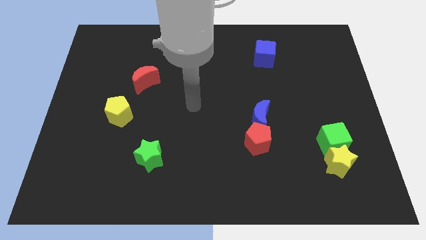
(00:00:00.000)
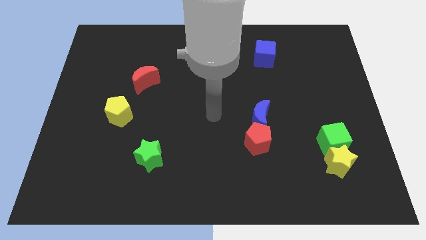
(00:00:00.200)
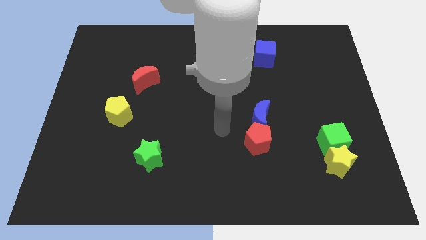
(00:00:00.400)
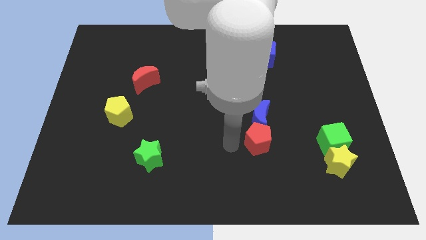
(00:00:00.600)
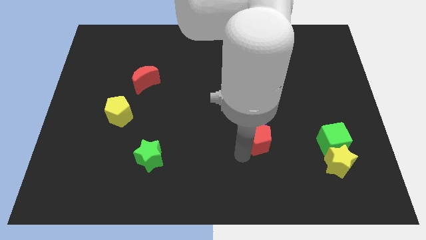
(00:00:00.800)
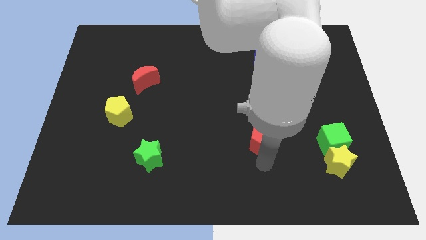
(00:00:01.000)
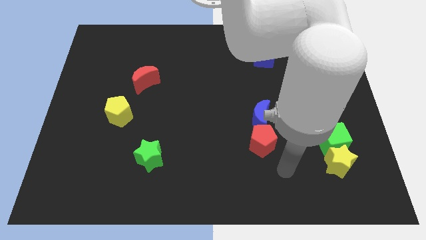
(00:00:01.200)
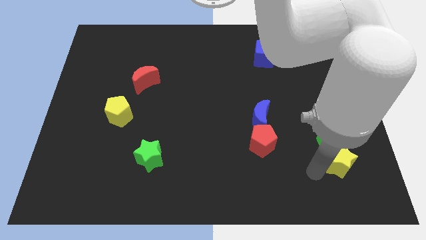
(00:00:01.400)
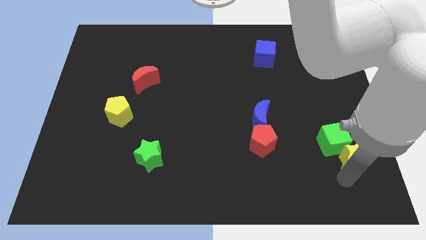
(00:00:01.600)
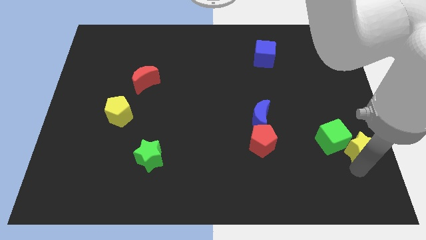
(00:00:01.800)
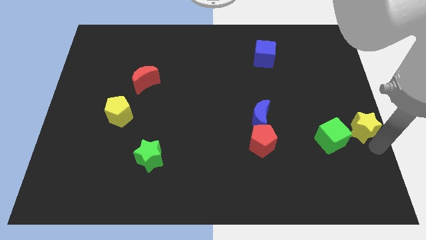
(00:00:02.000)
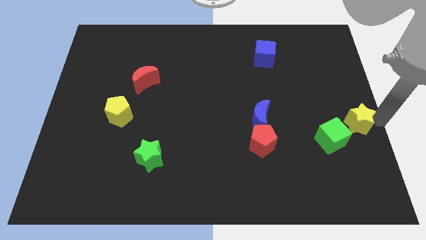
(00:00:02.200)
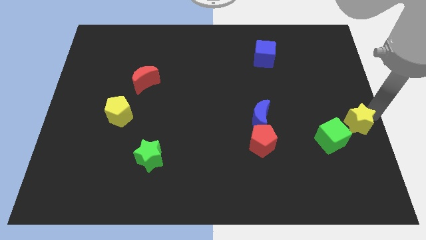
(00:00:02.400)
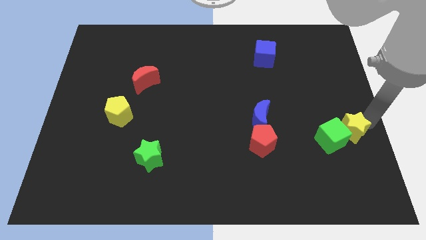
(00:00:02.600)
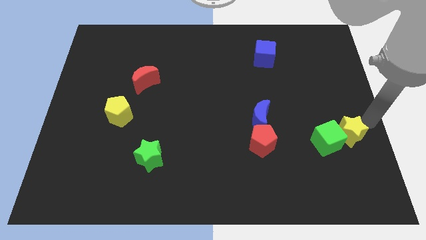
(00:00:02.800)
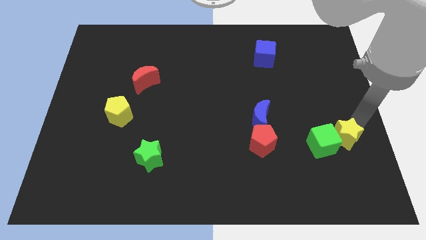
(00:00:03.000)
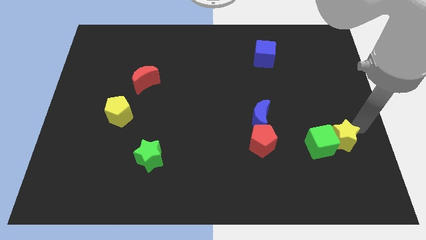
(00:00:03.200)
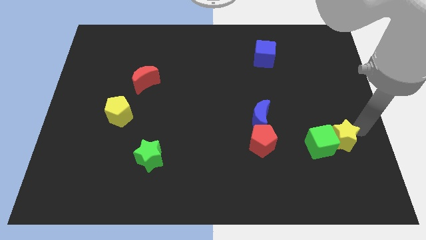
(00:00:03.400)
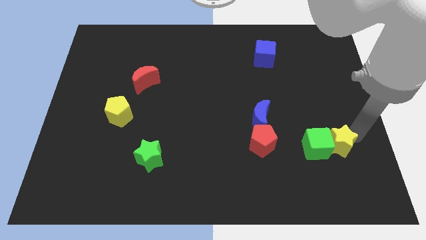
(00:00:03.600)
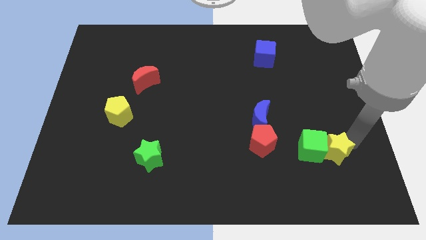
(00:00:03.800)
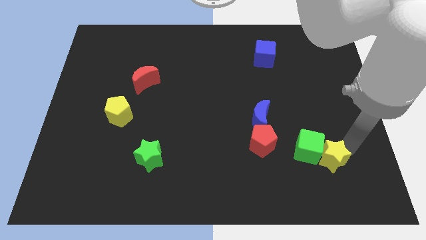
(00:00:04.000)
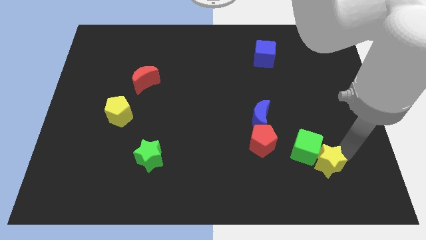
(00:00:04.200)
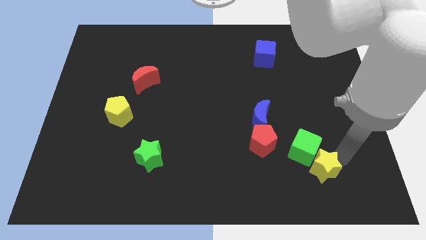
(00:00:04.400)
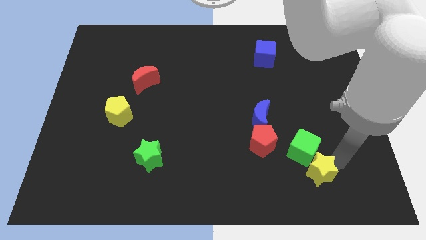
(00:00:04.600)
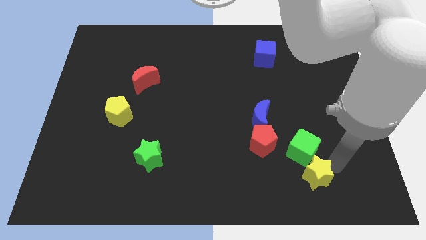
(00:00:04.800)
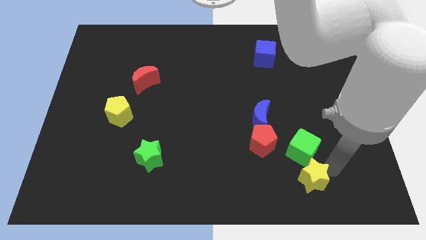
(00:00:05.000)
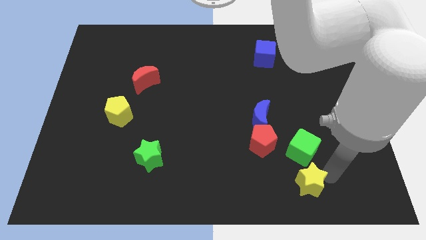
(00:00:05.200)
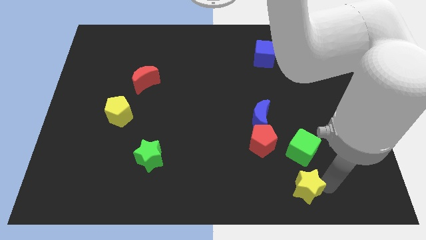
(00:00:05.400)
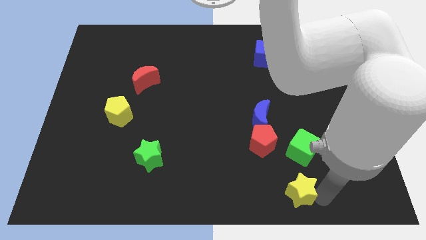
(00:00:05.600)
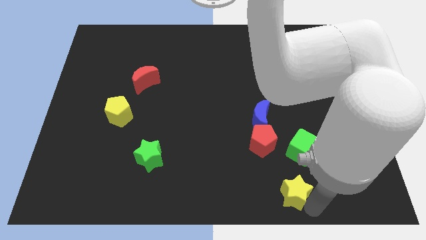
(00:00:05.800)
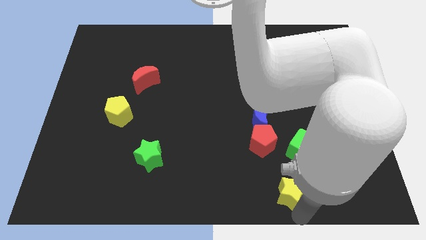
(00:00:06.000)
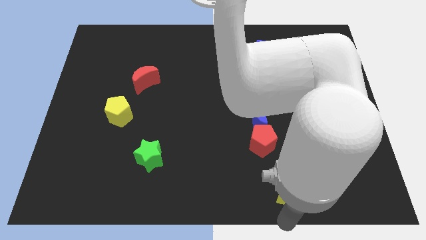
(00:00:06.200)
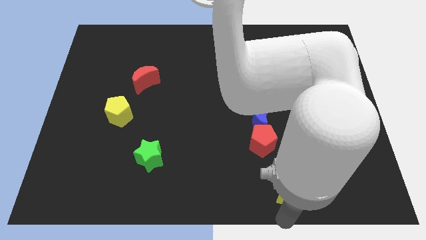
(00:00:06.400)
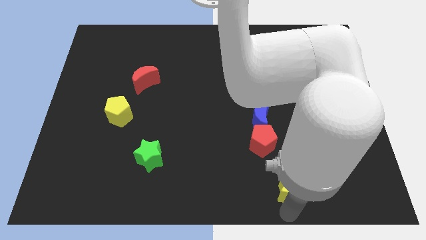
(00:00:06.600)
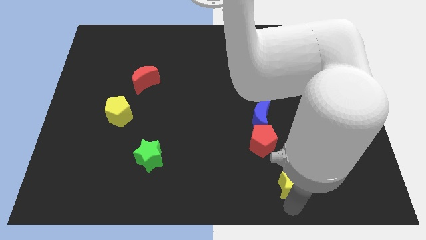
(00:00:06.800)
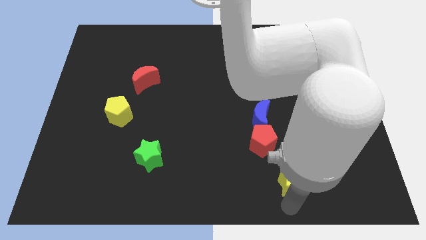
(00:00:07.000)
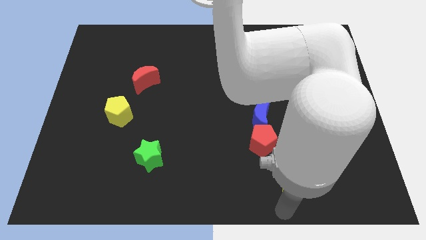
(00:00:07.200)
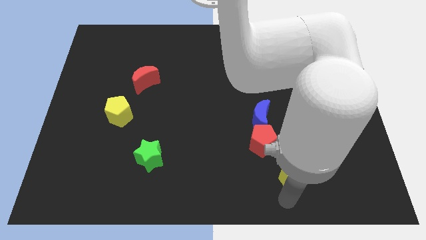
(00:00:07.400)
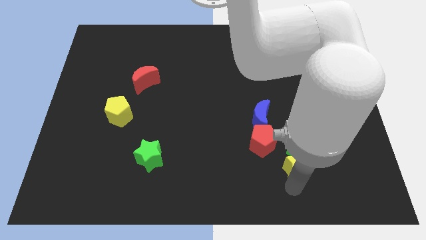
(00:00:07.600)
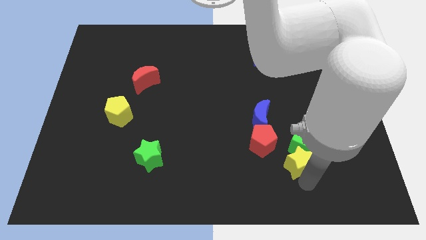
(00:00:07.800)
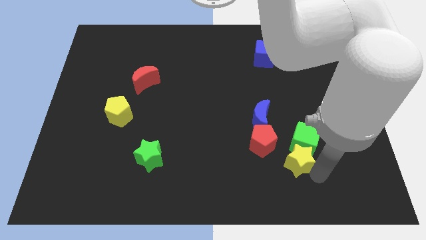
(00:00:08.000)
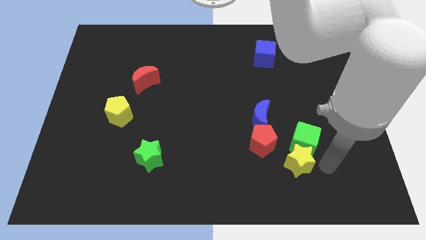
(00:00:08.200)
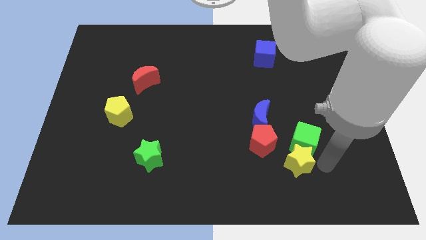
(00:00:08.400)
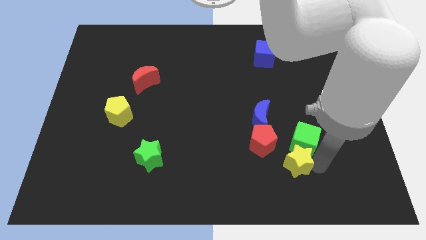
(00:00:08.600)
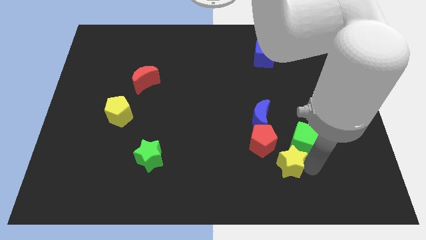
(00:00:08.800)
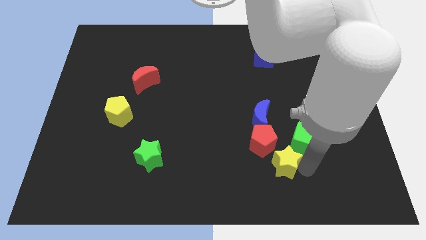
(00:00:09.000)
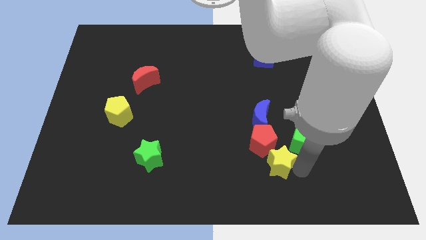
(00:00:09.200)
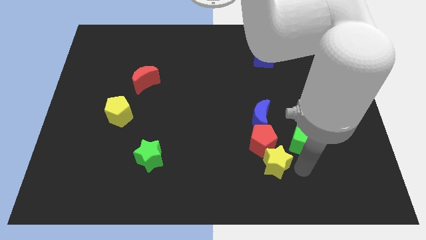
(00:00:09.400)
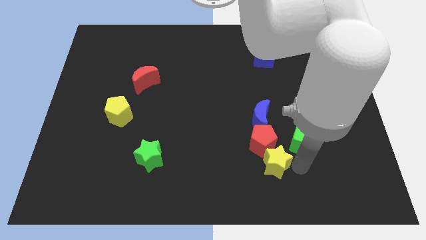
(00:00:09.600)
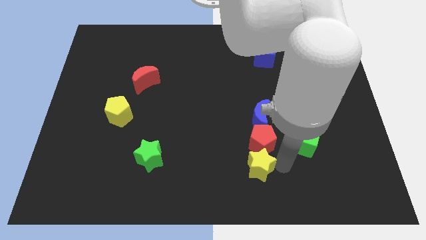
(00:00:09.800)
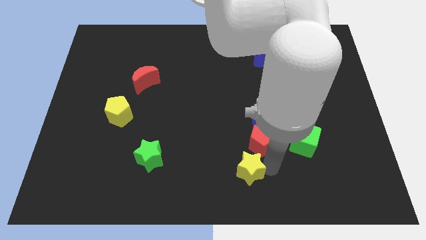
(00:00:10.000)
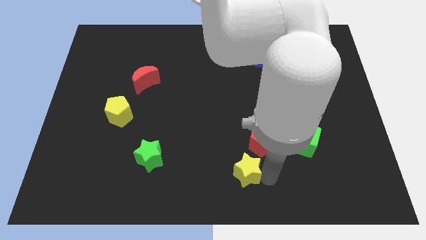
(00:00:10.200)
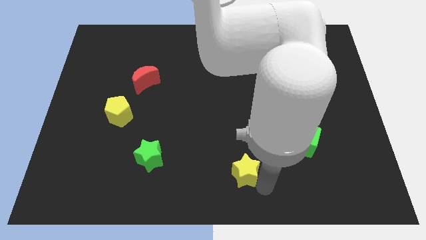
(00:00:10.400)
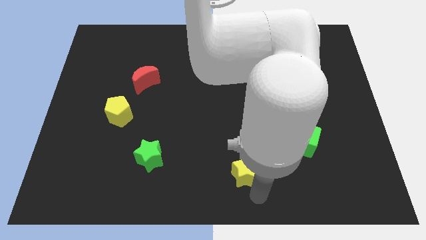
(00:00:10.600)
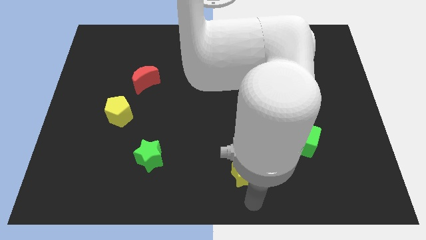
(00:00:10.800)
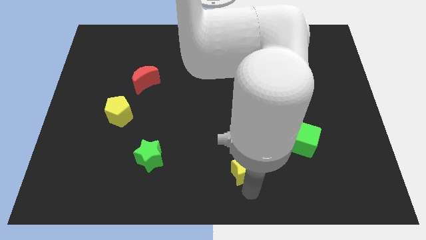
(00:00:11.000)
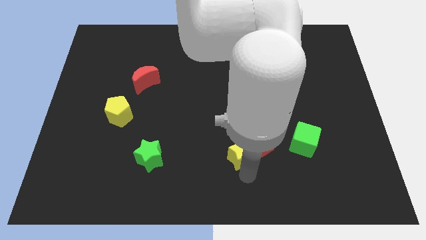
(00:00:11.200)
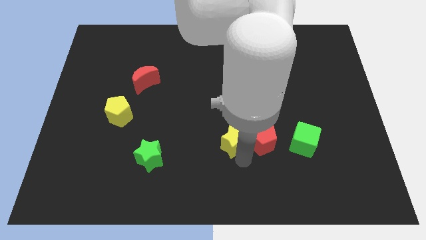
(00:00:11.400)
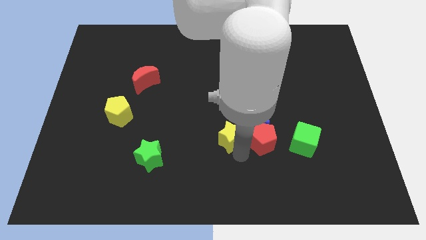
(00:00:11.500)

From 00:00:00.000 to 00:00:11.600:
move the yellow star to the middle
